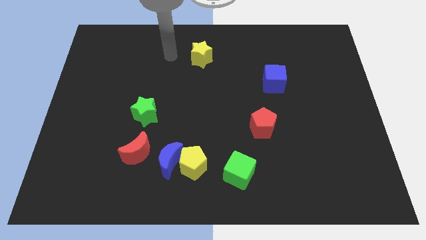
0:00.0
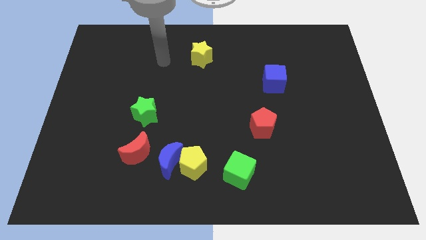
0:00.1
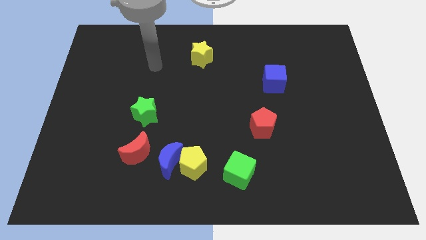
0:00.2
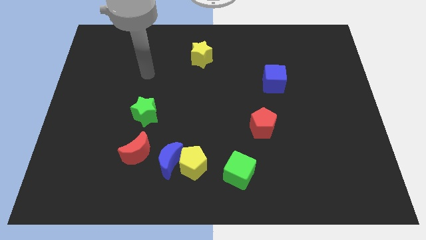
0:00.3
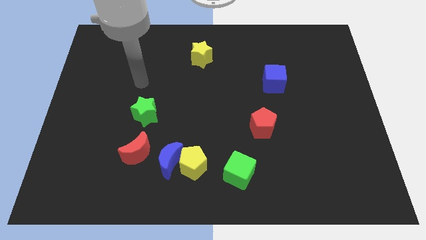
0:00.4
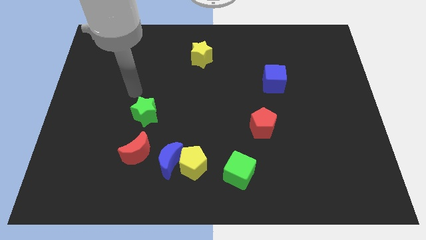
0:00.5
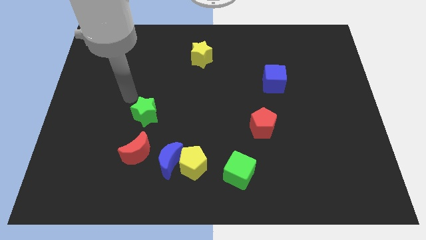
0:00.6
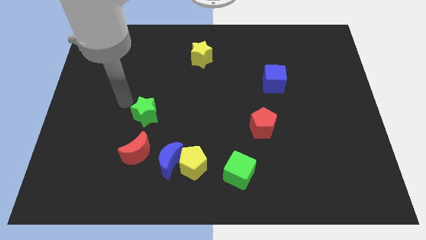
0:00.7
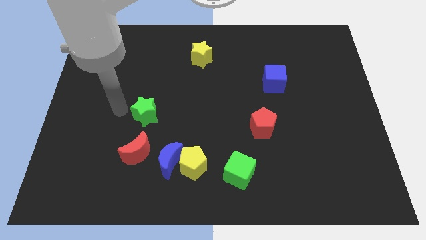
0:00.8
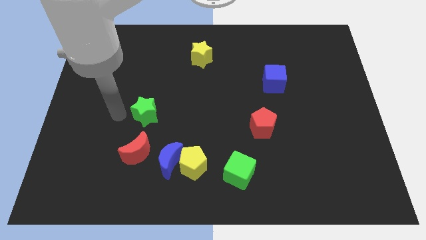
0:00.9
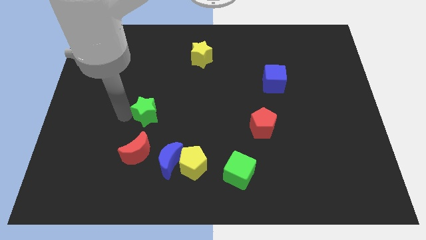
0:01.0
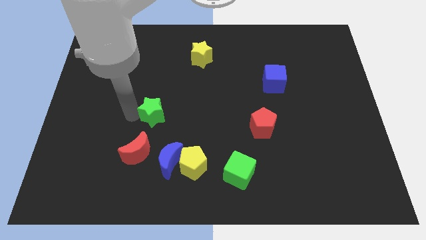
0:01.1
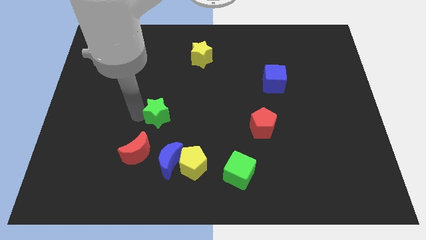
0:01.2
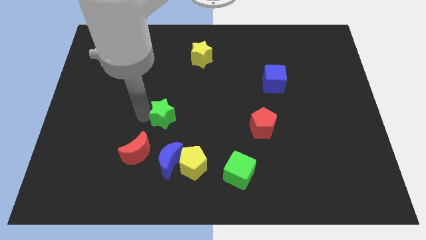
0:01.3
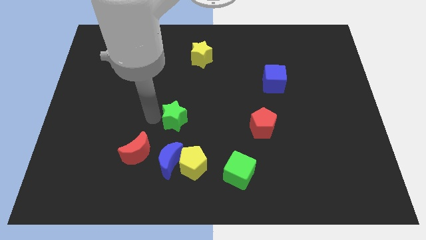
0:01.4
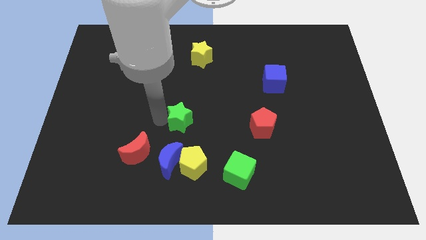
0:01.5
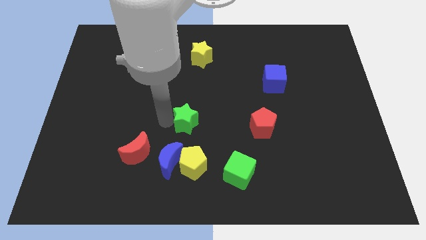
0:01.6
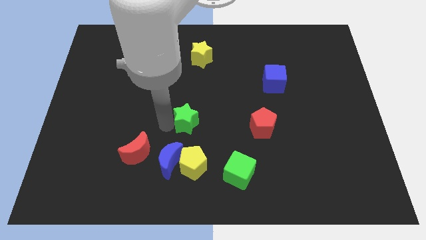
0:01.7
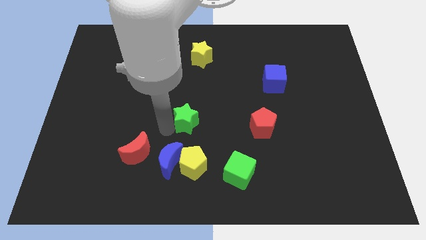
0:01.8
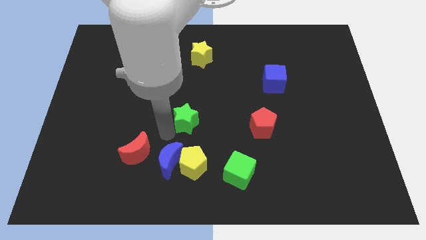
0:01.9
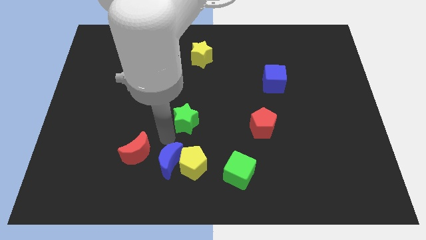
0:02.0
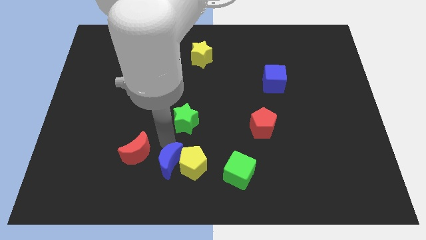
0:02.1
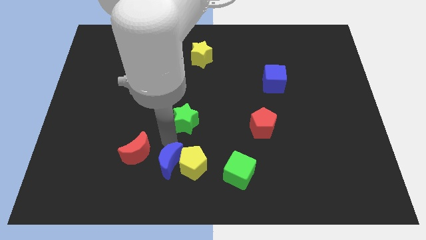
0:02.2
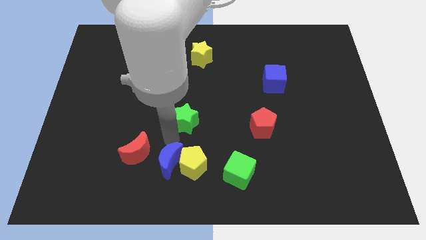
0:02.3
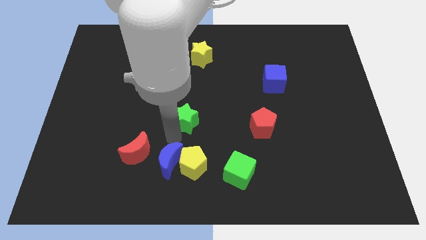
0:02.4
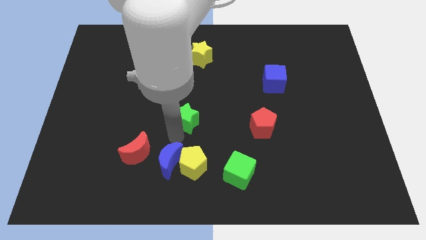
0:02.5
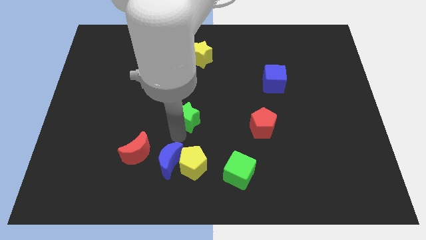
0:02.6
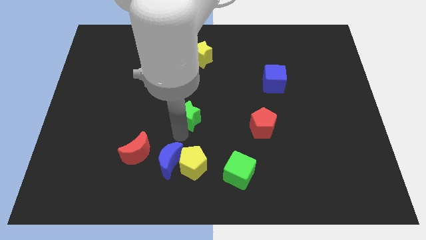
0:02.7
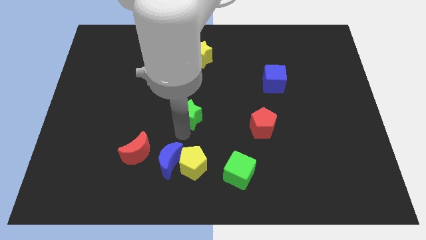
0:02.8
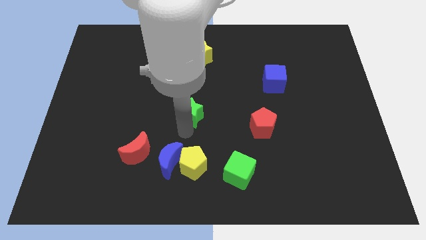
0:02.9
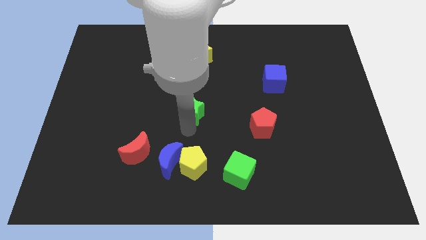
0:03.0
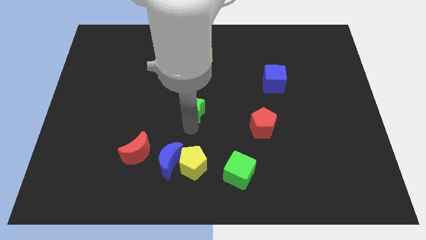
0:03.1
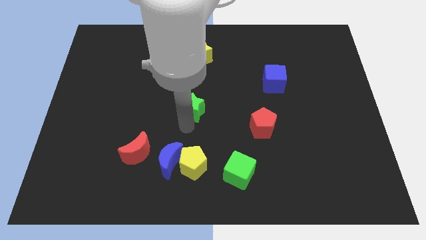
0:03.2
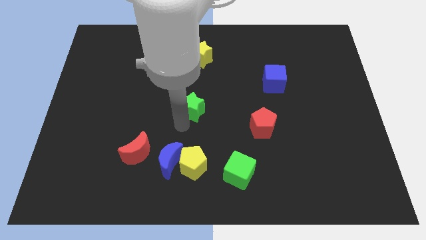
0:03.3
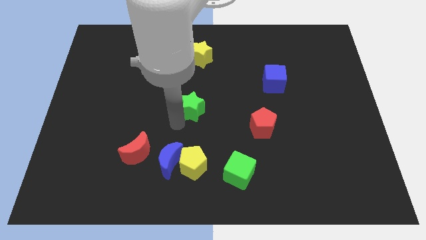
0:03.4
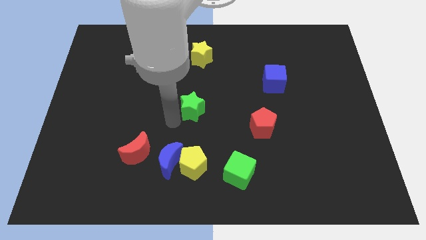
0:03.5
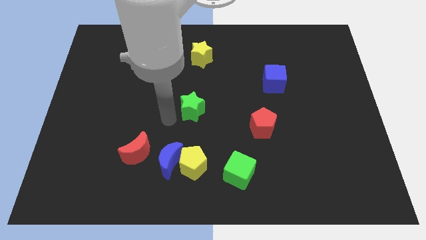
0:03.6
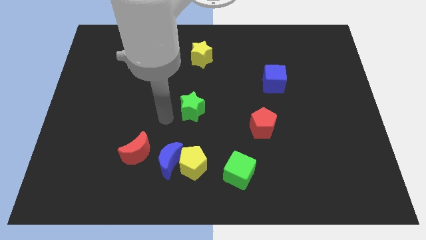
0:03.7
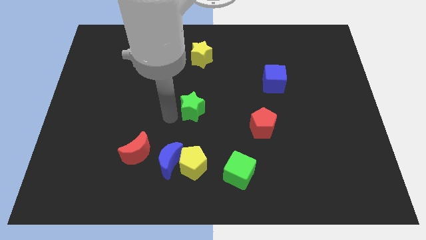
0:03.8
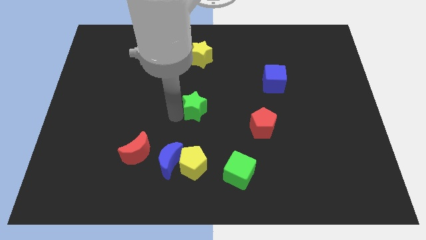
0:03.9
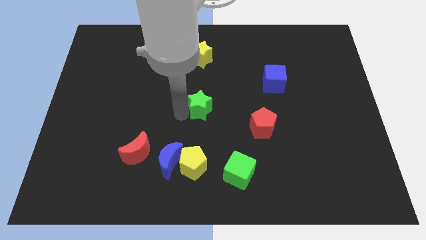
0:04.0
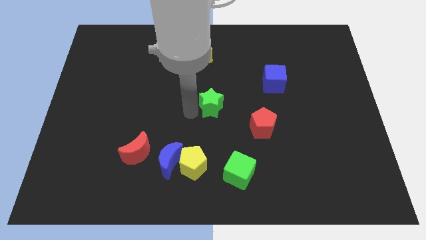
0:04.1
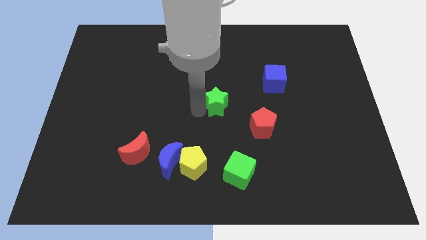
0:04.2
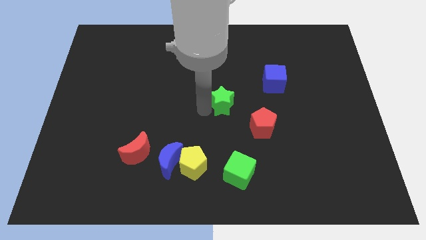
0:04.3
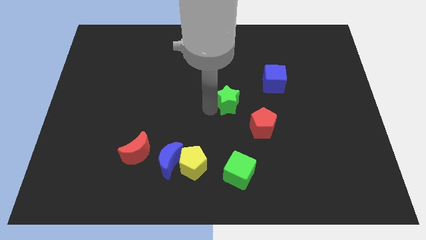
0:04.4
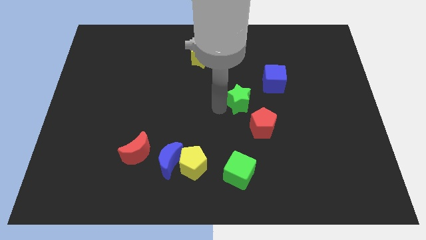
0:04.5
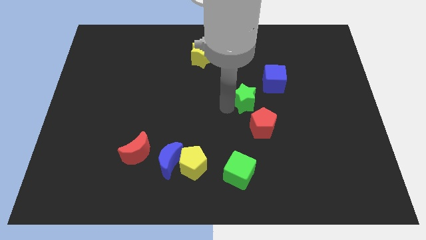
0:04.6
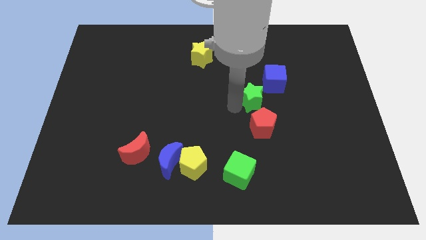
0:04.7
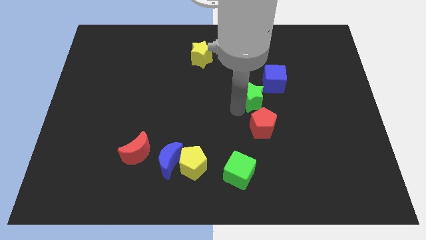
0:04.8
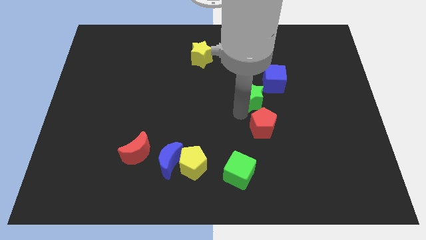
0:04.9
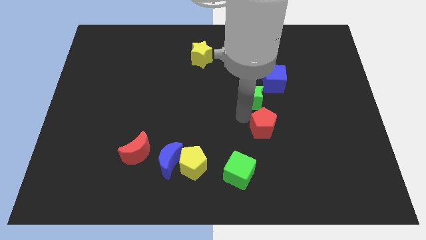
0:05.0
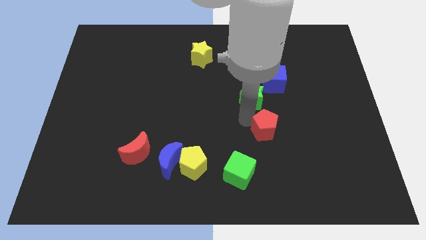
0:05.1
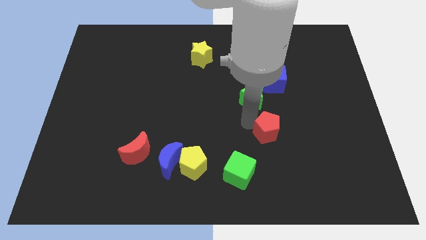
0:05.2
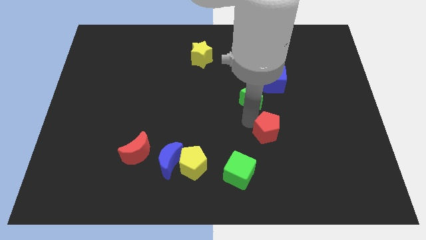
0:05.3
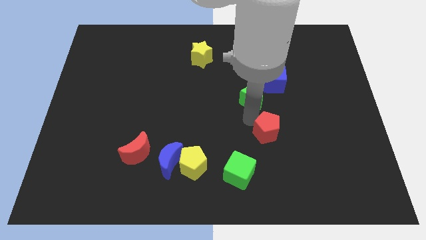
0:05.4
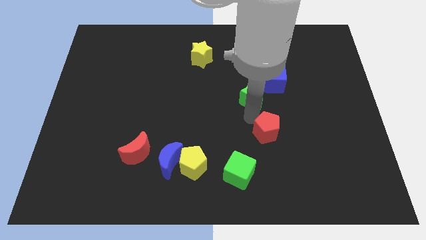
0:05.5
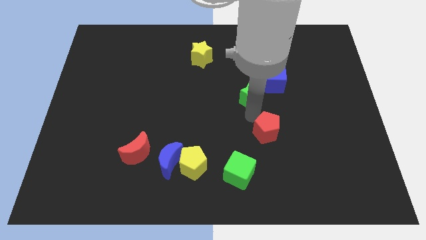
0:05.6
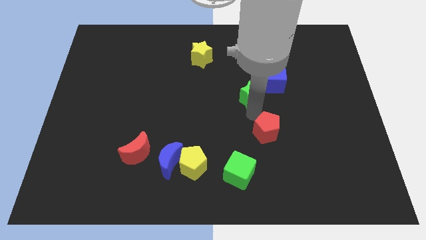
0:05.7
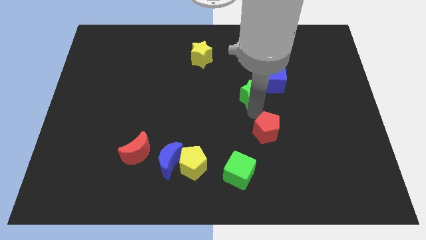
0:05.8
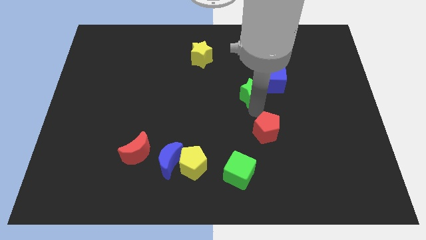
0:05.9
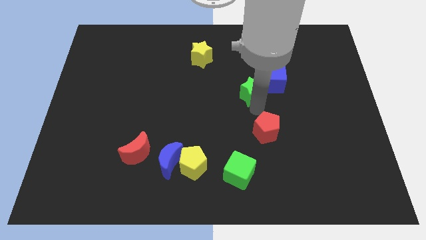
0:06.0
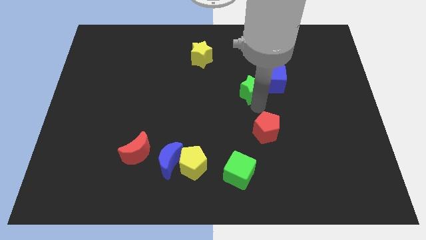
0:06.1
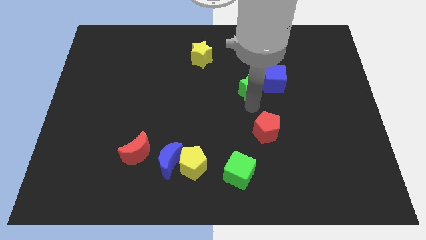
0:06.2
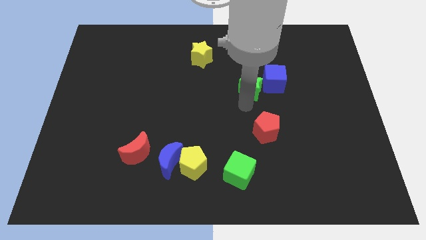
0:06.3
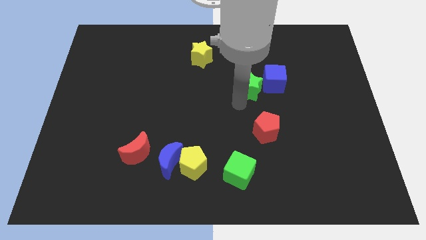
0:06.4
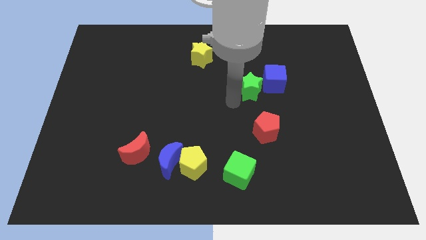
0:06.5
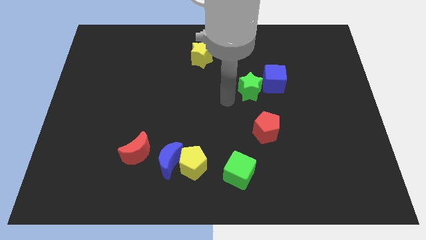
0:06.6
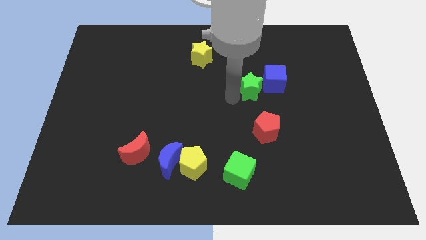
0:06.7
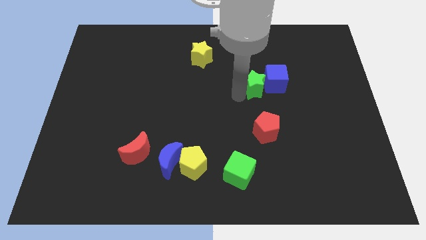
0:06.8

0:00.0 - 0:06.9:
slide the green star towards the blue cube
